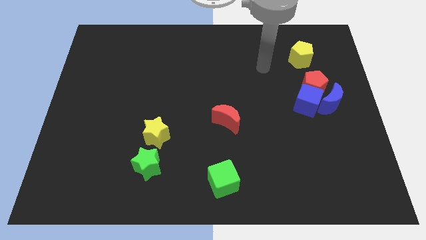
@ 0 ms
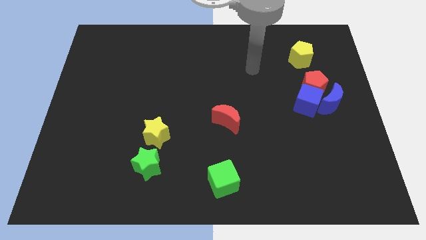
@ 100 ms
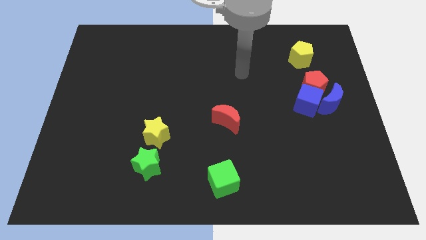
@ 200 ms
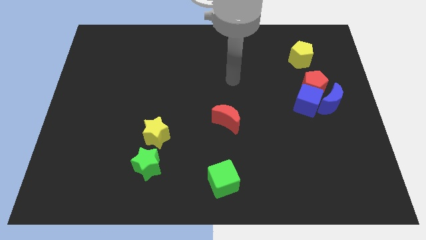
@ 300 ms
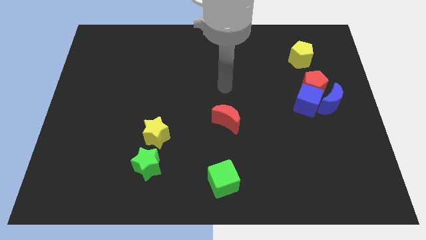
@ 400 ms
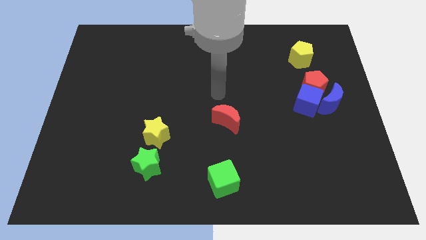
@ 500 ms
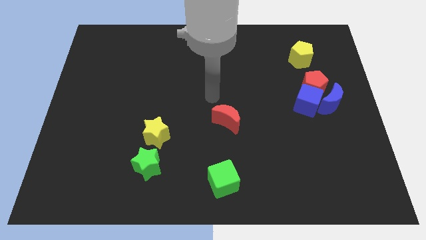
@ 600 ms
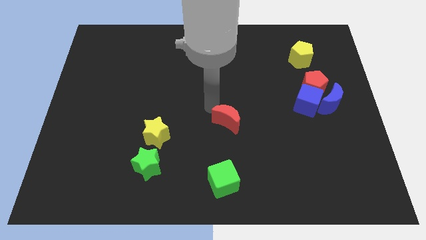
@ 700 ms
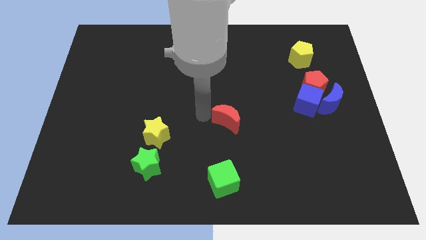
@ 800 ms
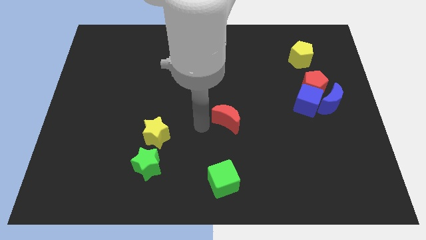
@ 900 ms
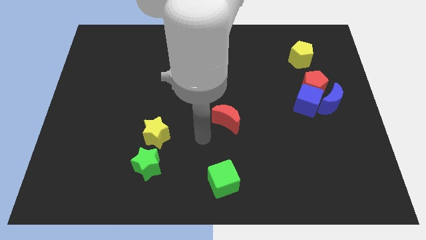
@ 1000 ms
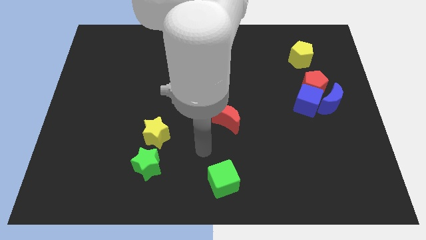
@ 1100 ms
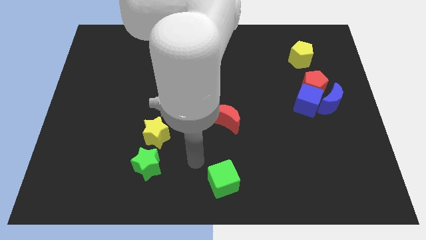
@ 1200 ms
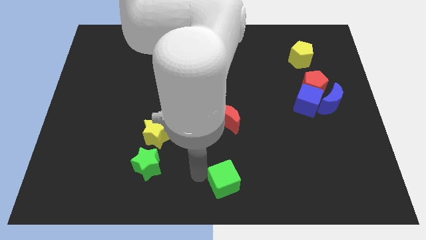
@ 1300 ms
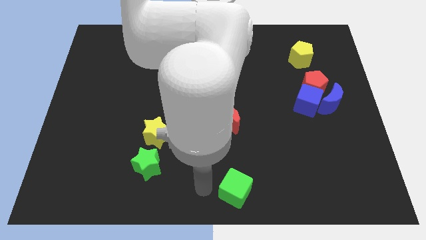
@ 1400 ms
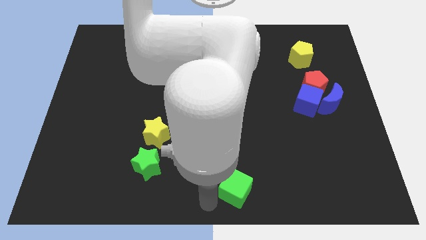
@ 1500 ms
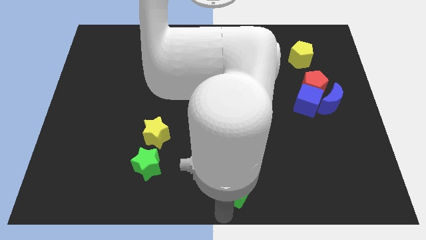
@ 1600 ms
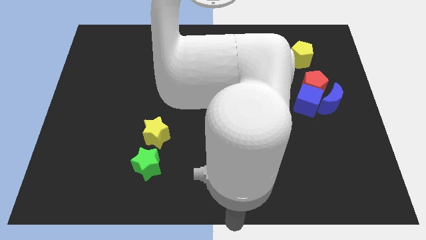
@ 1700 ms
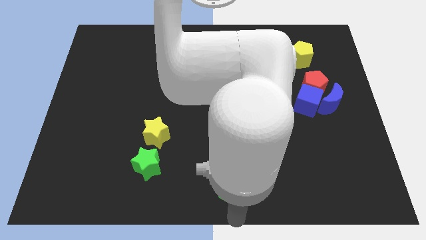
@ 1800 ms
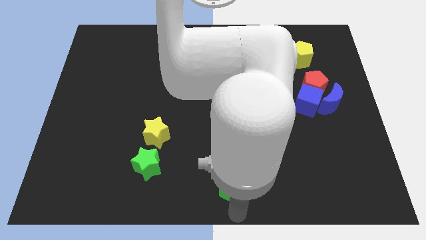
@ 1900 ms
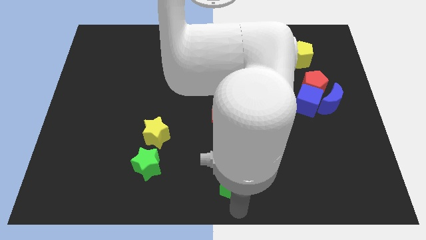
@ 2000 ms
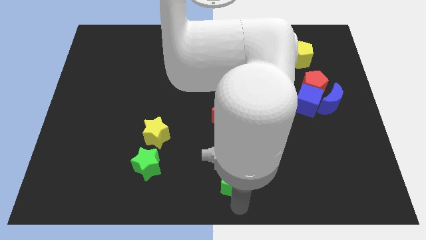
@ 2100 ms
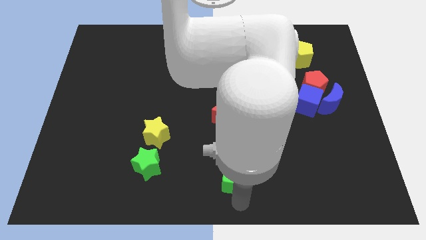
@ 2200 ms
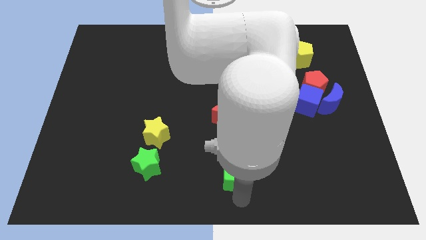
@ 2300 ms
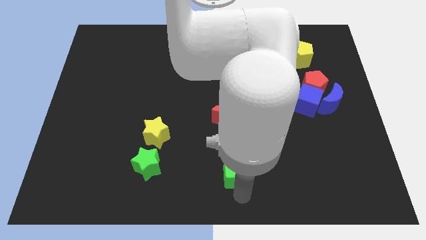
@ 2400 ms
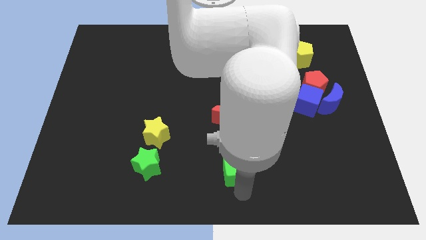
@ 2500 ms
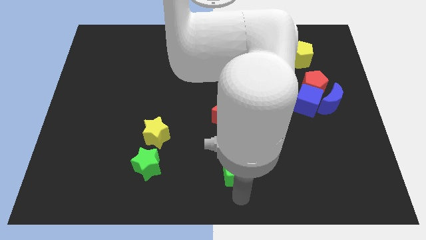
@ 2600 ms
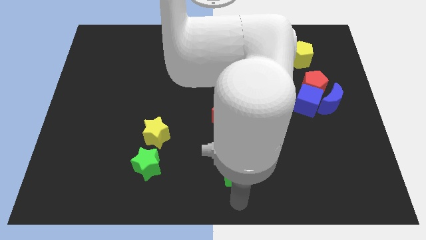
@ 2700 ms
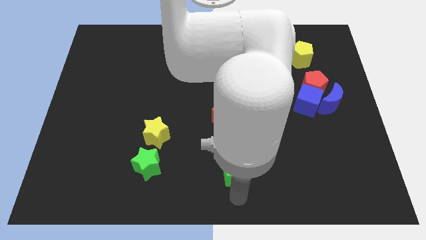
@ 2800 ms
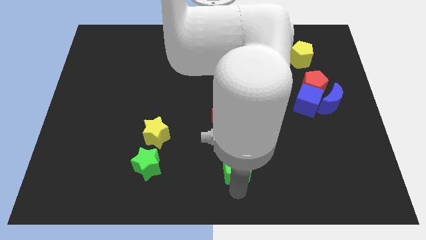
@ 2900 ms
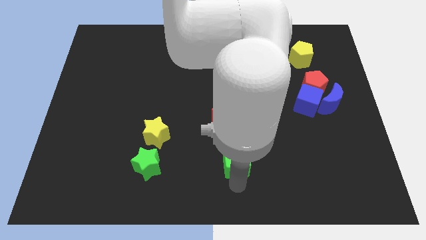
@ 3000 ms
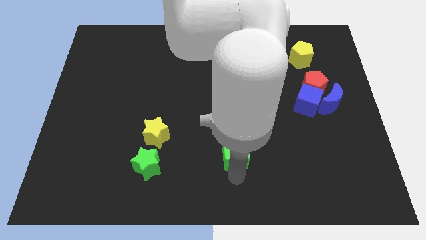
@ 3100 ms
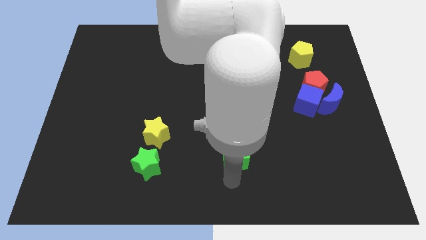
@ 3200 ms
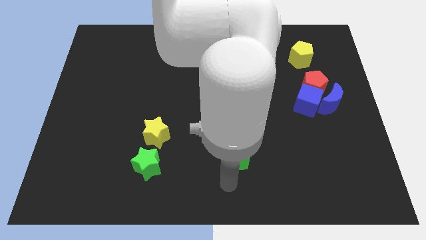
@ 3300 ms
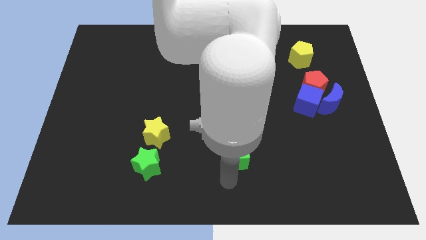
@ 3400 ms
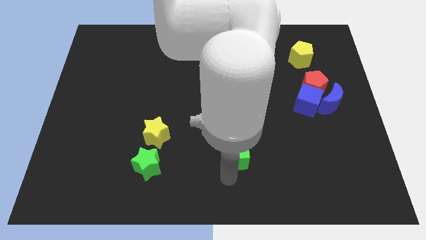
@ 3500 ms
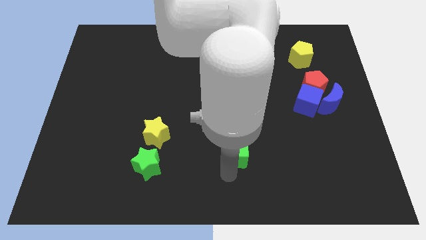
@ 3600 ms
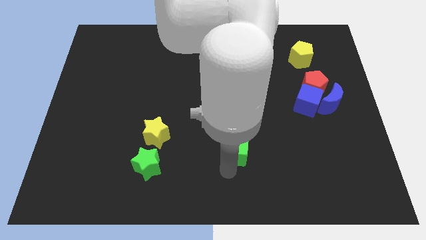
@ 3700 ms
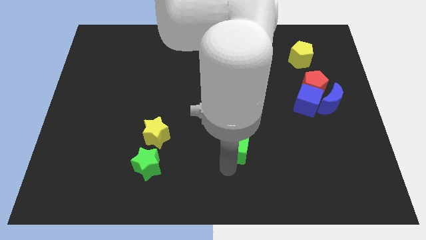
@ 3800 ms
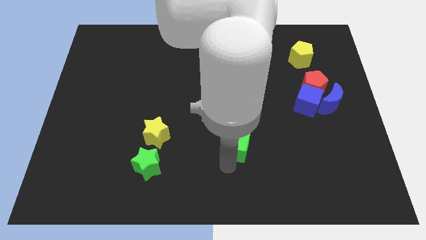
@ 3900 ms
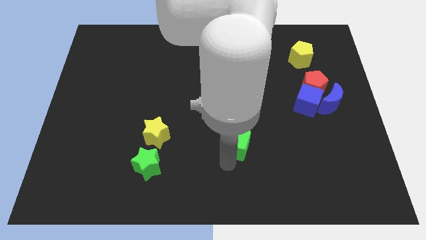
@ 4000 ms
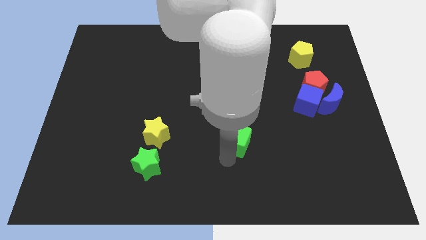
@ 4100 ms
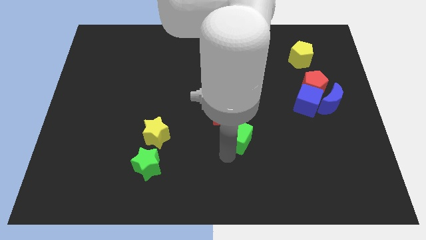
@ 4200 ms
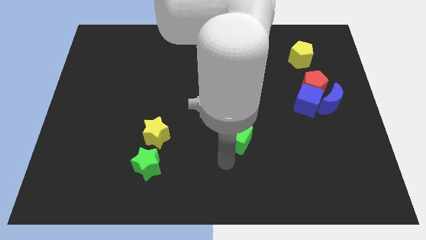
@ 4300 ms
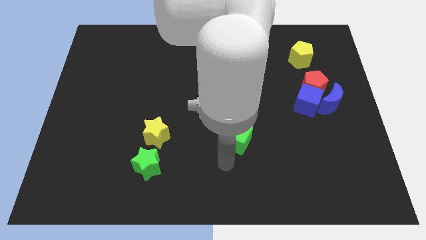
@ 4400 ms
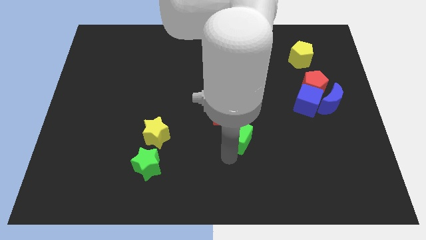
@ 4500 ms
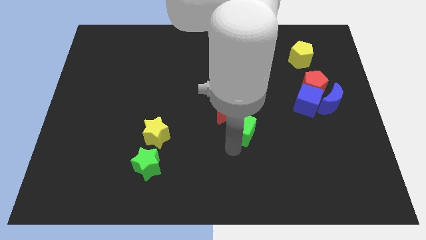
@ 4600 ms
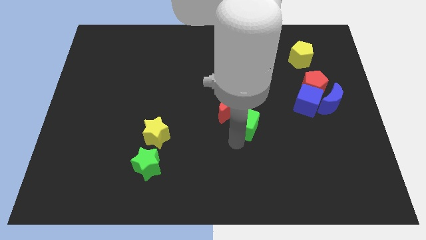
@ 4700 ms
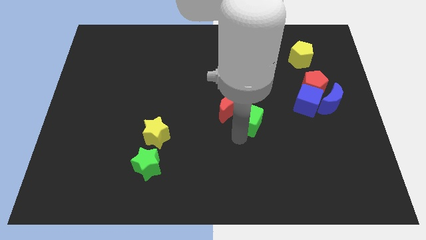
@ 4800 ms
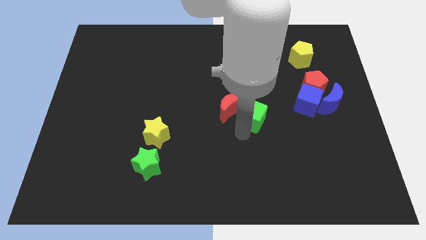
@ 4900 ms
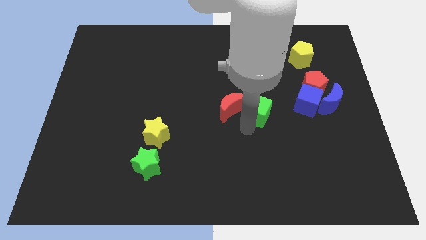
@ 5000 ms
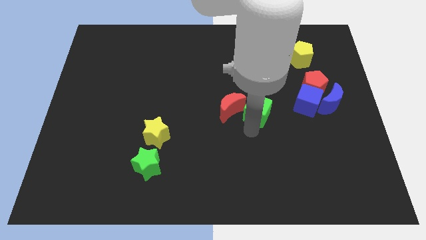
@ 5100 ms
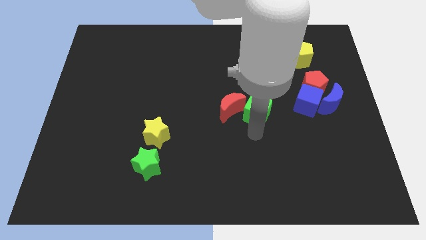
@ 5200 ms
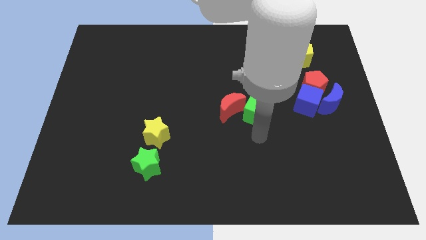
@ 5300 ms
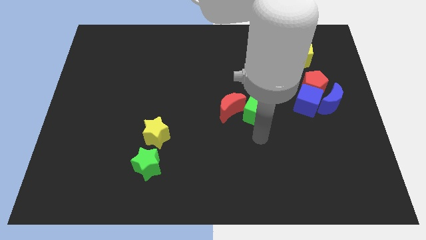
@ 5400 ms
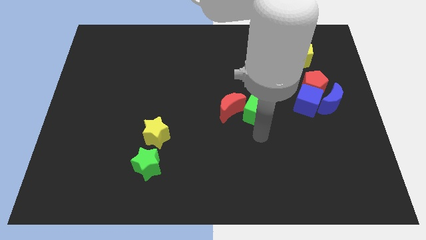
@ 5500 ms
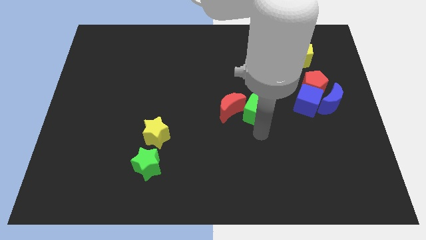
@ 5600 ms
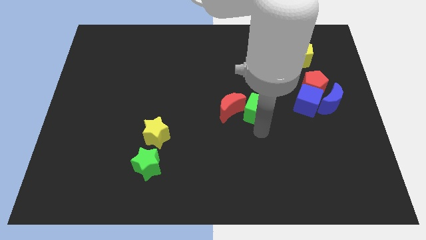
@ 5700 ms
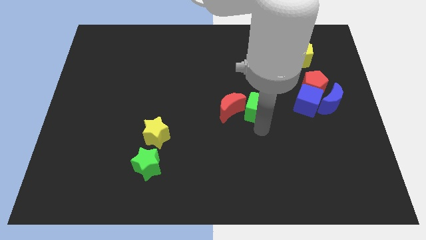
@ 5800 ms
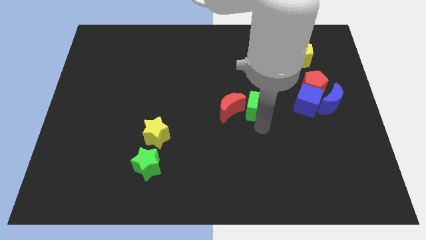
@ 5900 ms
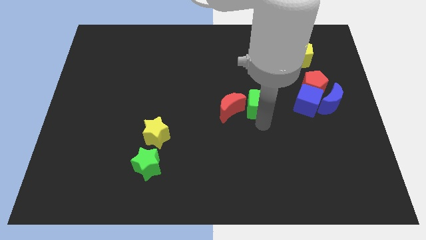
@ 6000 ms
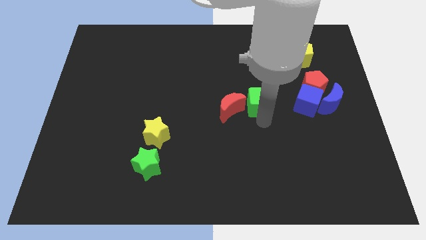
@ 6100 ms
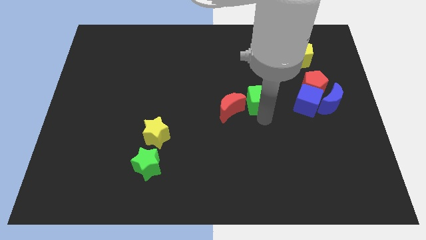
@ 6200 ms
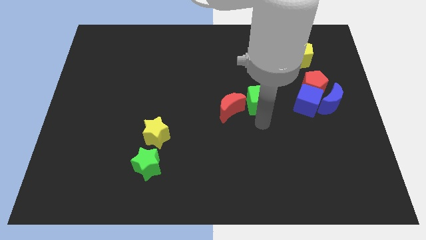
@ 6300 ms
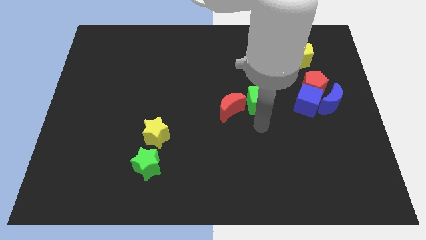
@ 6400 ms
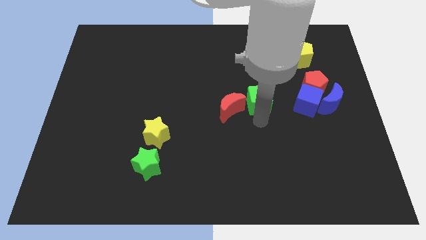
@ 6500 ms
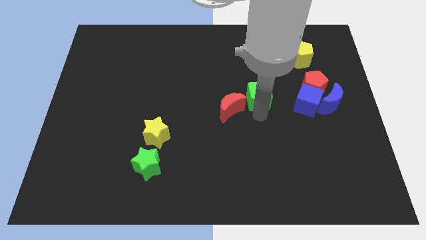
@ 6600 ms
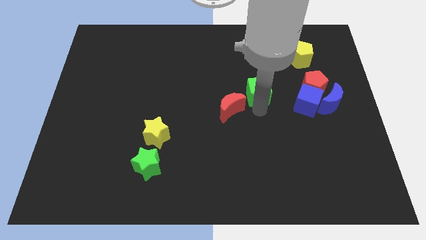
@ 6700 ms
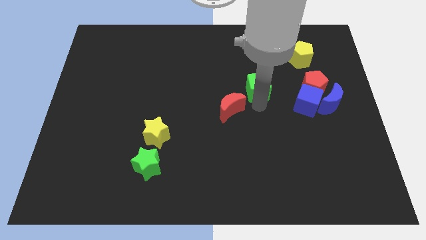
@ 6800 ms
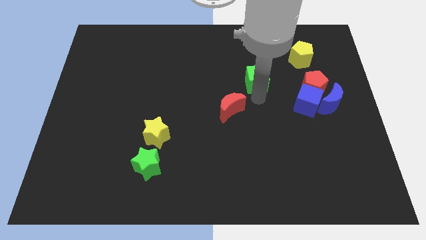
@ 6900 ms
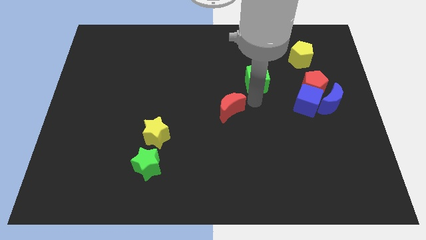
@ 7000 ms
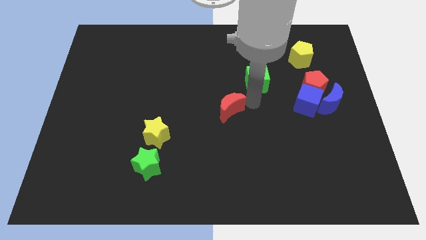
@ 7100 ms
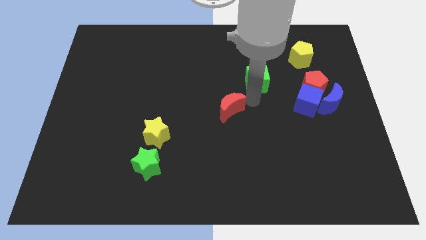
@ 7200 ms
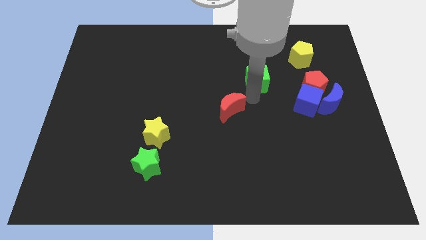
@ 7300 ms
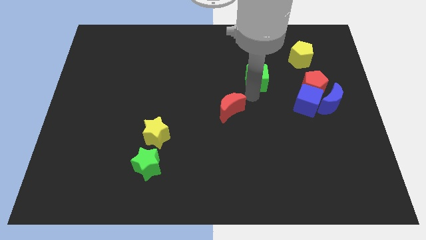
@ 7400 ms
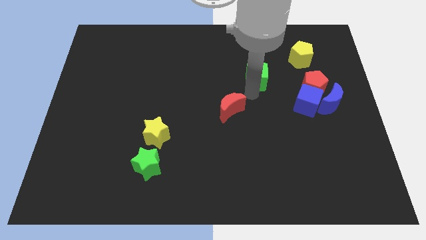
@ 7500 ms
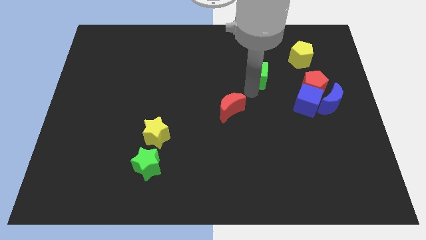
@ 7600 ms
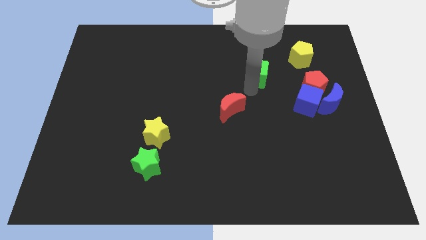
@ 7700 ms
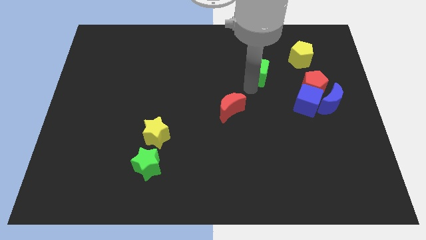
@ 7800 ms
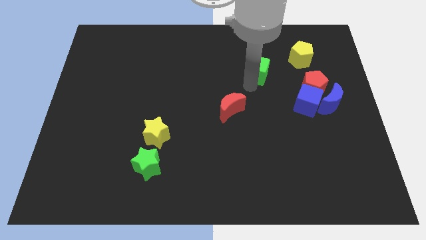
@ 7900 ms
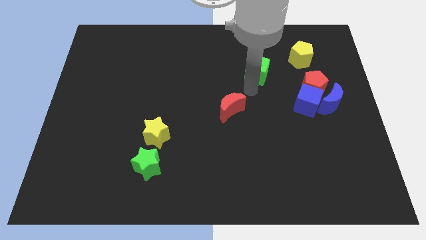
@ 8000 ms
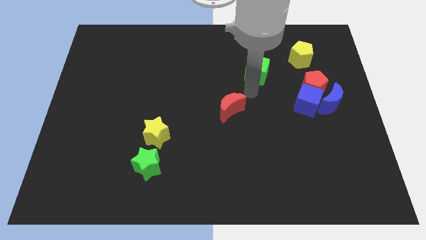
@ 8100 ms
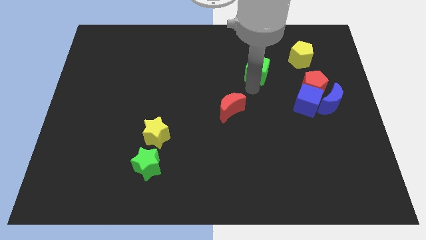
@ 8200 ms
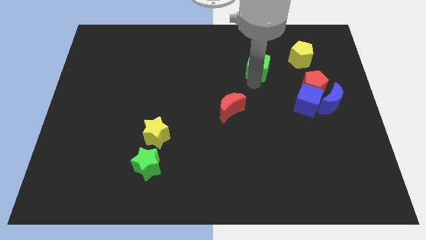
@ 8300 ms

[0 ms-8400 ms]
slide the green cube left of the yellow pentagon
